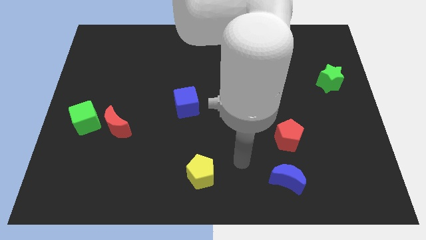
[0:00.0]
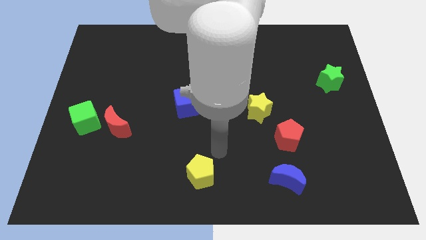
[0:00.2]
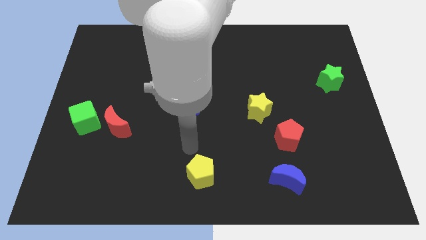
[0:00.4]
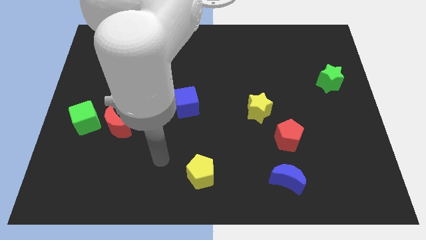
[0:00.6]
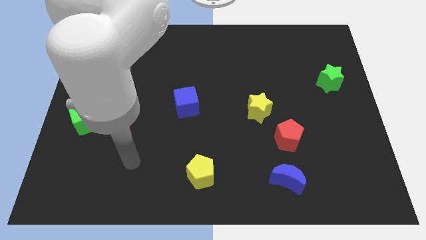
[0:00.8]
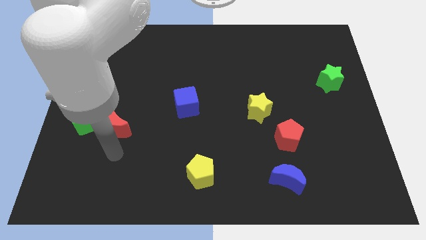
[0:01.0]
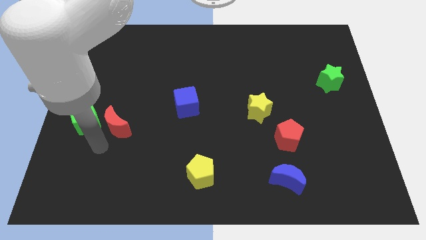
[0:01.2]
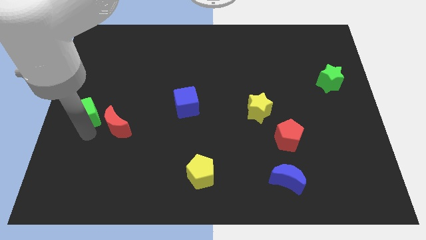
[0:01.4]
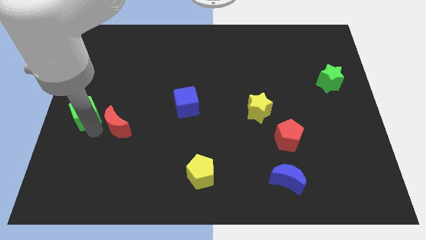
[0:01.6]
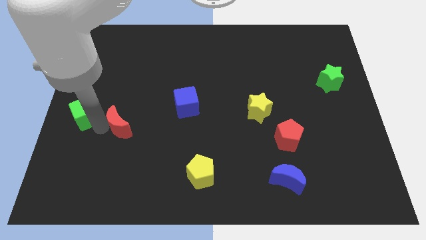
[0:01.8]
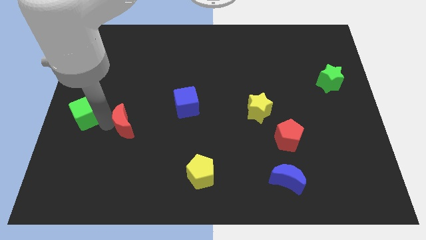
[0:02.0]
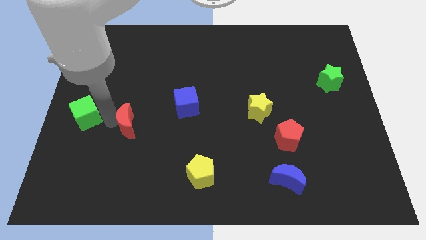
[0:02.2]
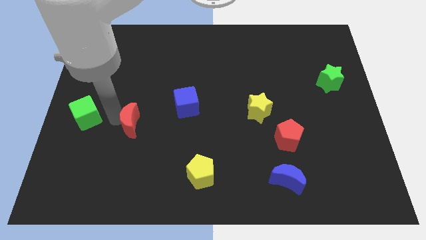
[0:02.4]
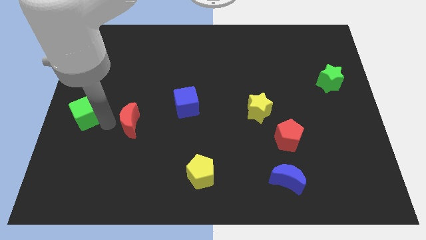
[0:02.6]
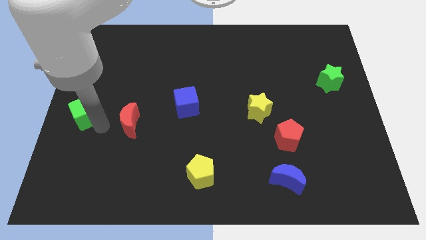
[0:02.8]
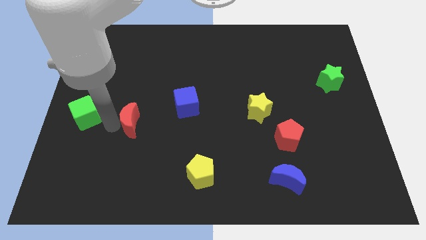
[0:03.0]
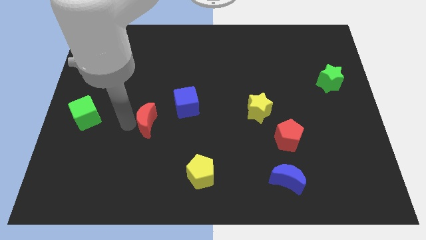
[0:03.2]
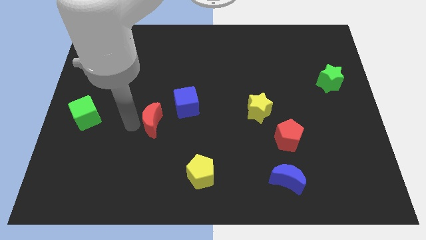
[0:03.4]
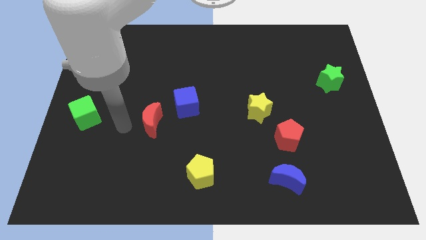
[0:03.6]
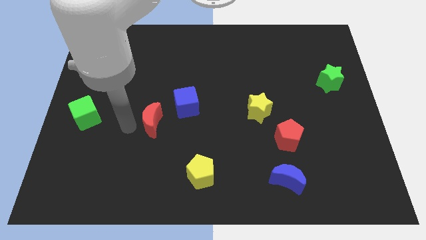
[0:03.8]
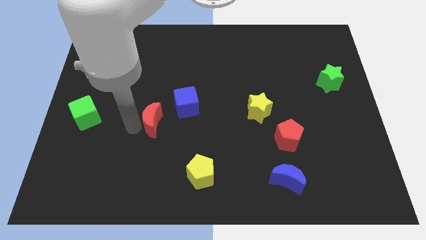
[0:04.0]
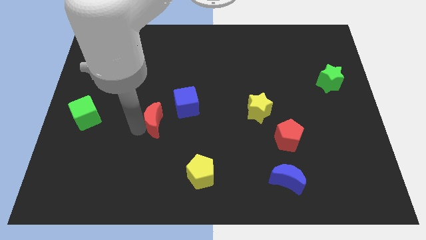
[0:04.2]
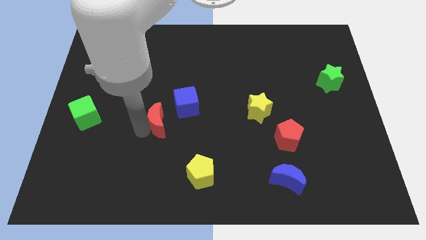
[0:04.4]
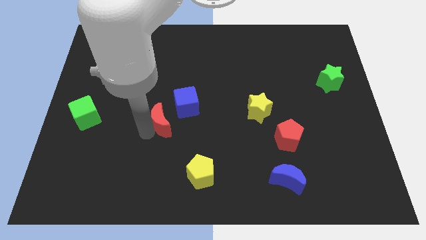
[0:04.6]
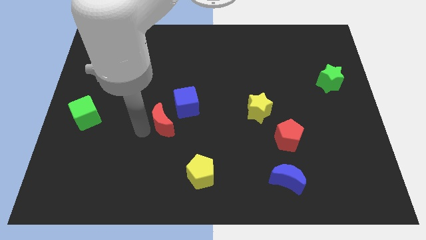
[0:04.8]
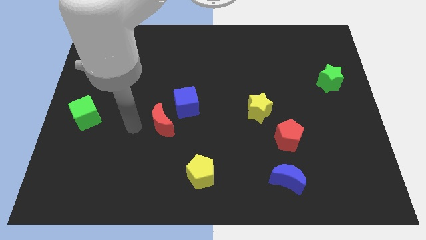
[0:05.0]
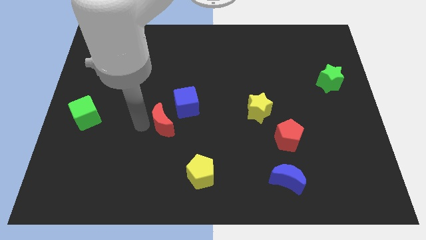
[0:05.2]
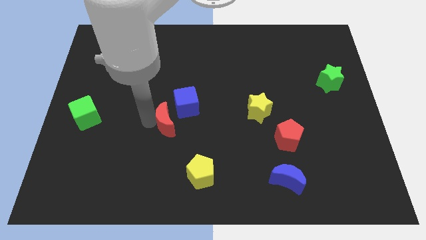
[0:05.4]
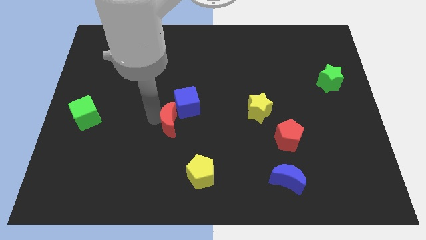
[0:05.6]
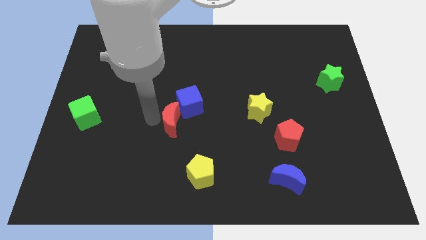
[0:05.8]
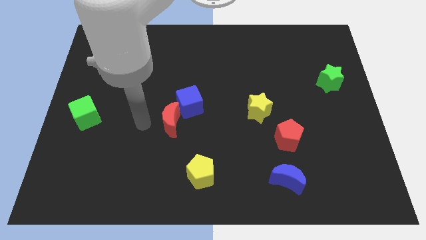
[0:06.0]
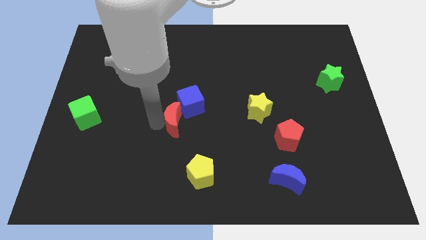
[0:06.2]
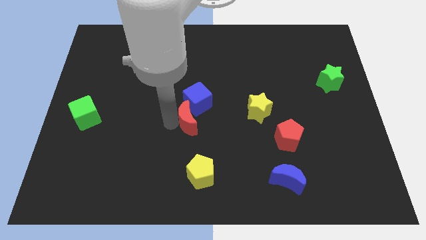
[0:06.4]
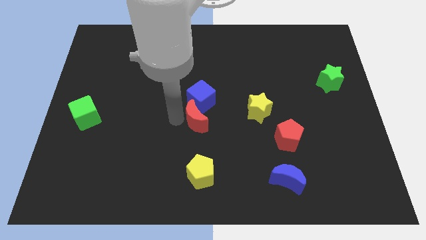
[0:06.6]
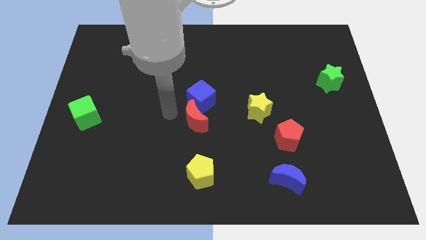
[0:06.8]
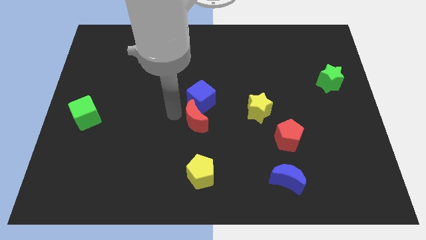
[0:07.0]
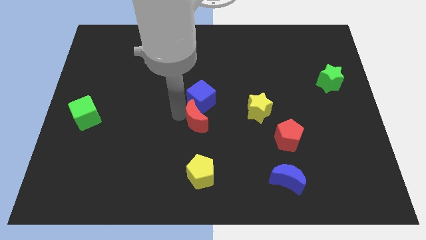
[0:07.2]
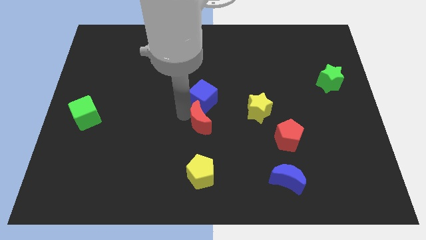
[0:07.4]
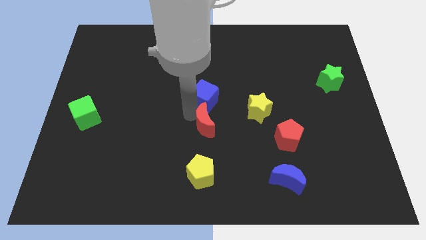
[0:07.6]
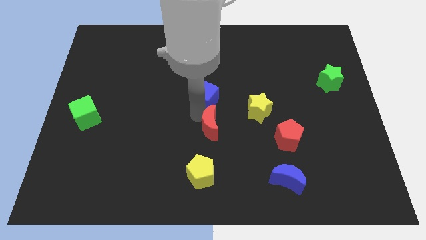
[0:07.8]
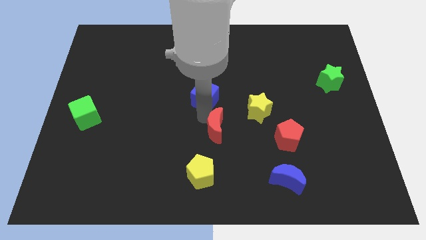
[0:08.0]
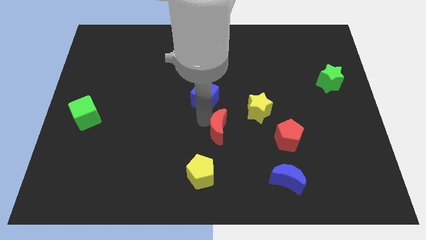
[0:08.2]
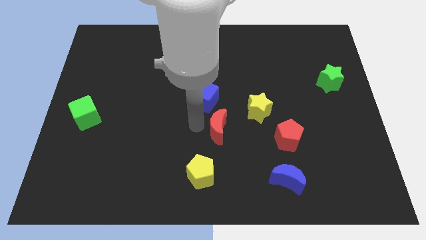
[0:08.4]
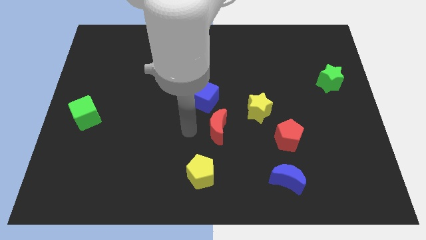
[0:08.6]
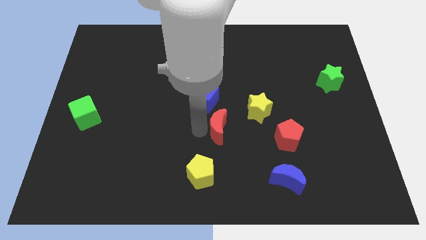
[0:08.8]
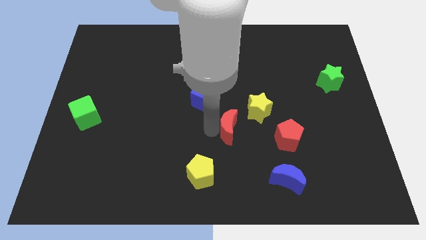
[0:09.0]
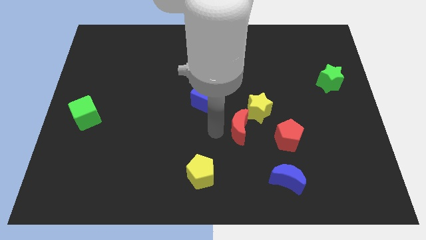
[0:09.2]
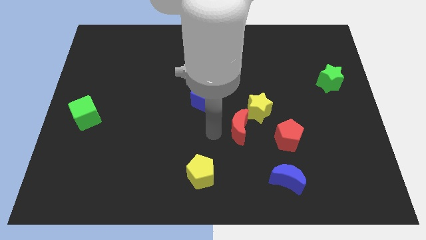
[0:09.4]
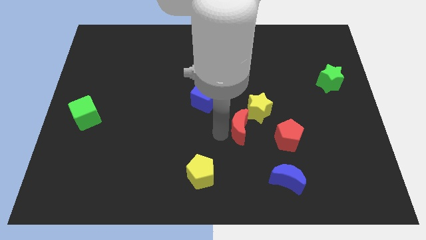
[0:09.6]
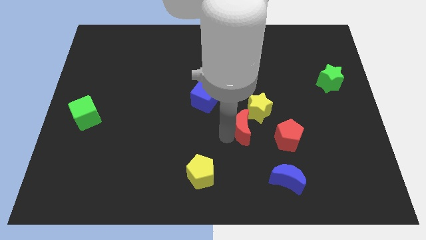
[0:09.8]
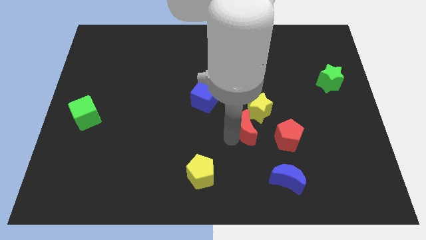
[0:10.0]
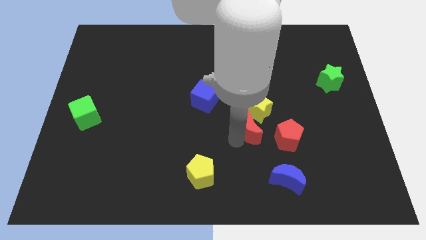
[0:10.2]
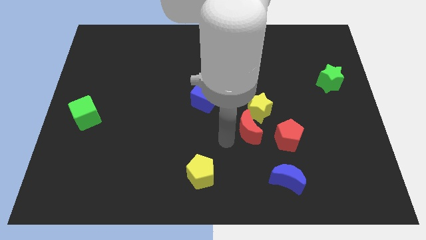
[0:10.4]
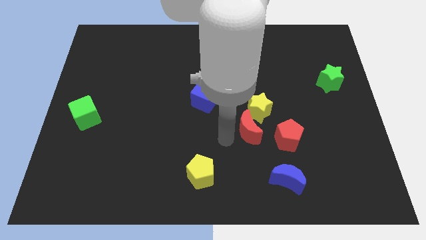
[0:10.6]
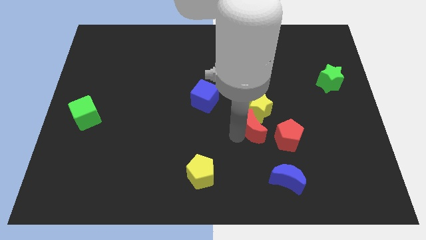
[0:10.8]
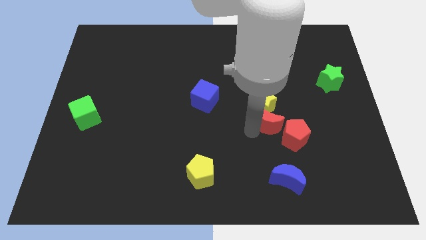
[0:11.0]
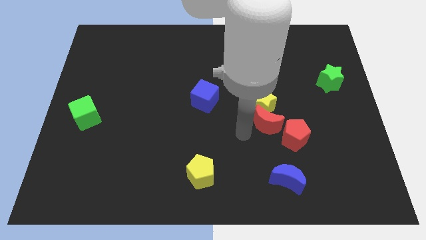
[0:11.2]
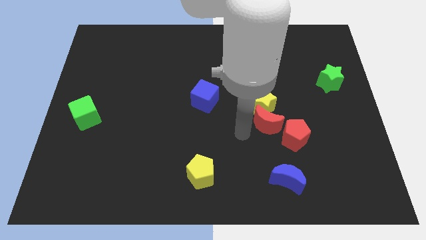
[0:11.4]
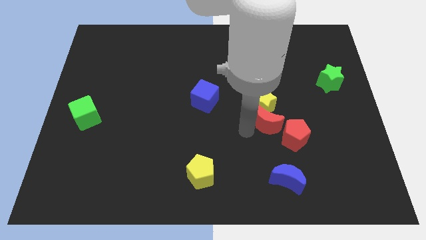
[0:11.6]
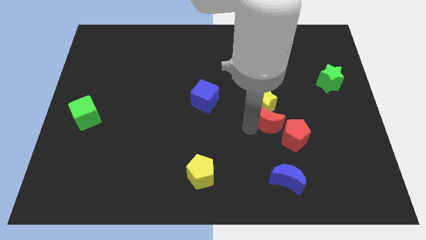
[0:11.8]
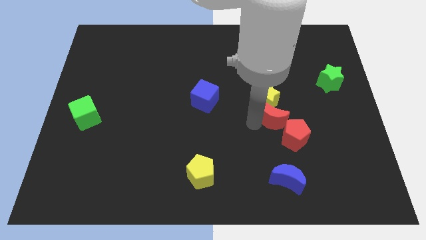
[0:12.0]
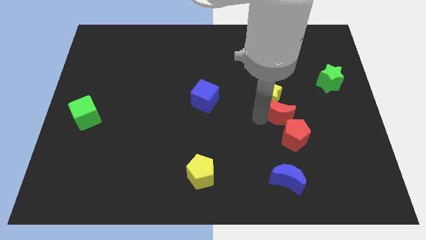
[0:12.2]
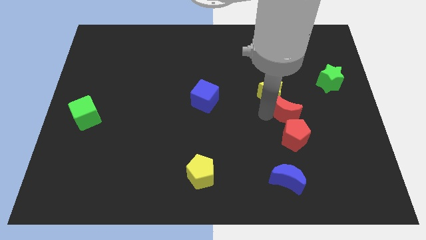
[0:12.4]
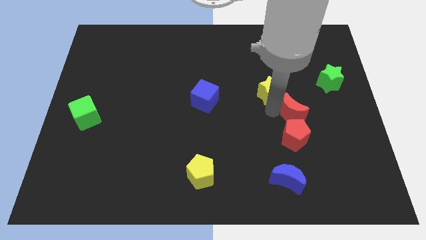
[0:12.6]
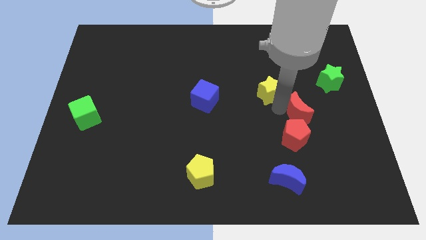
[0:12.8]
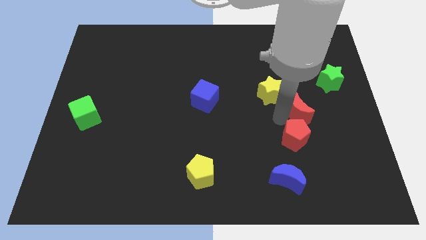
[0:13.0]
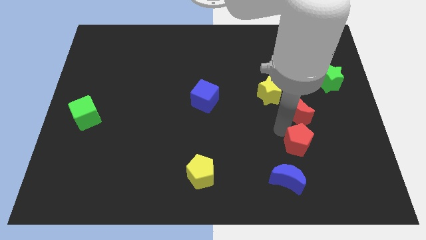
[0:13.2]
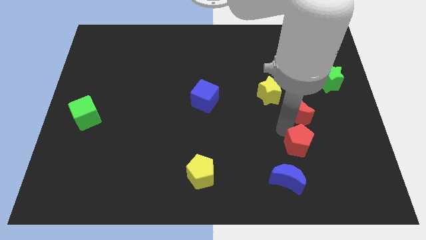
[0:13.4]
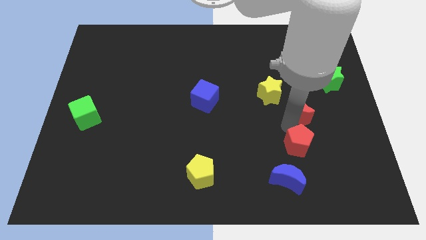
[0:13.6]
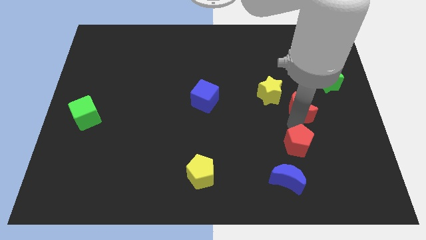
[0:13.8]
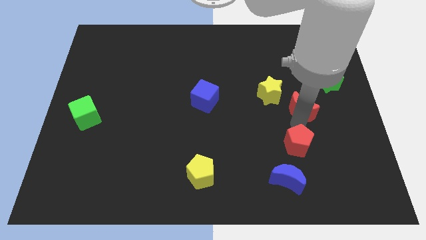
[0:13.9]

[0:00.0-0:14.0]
slide the red moon to the right of the yellow star

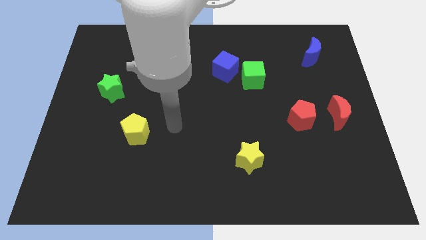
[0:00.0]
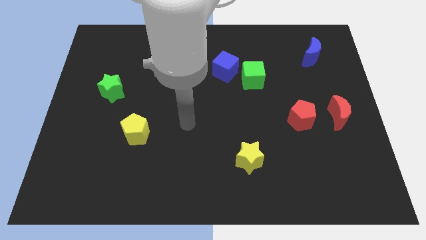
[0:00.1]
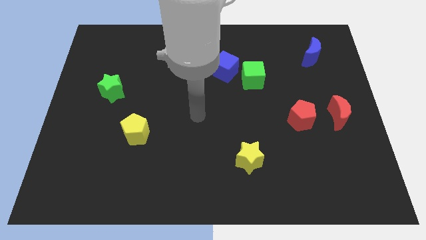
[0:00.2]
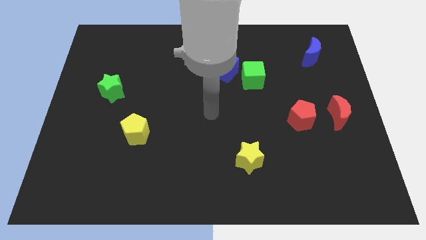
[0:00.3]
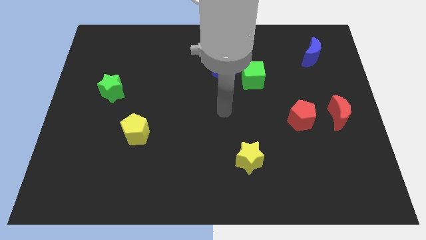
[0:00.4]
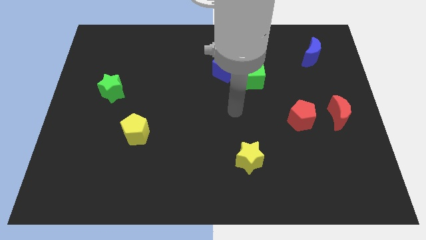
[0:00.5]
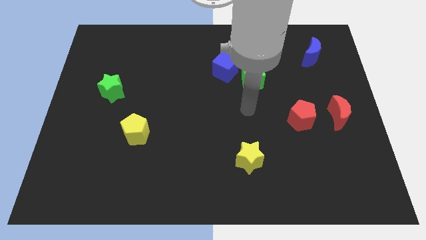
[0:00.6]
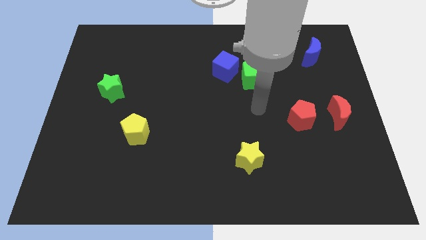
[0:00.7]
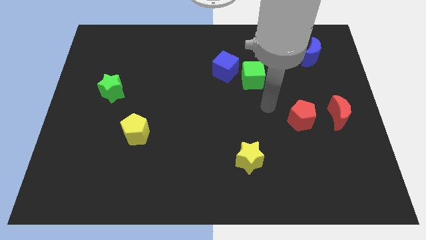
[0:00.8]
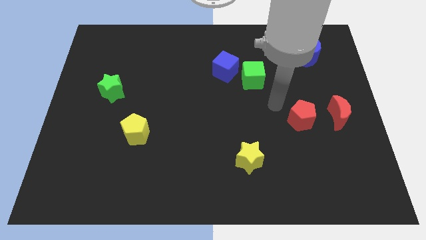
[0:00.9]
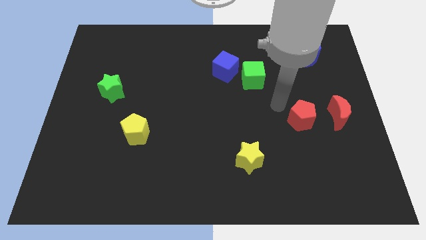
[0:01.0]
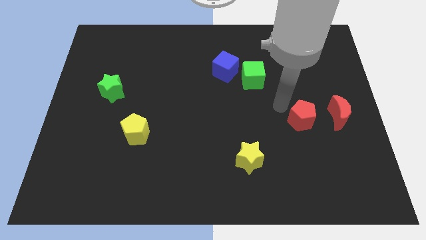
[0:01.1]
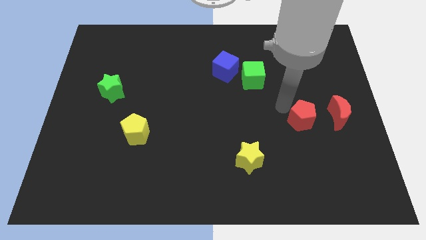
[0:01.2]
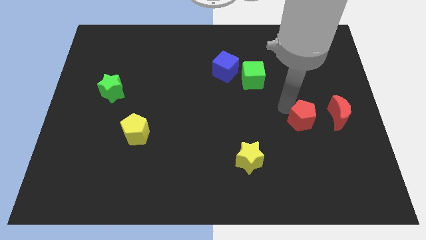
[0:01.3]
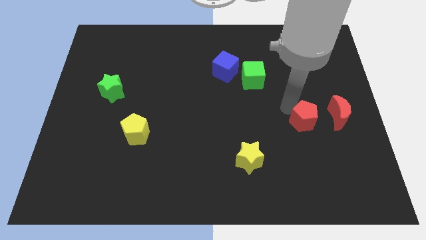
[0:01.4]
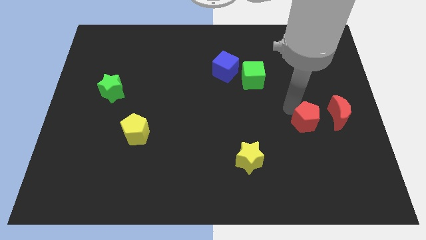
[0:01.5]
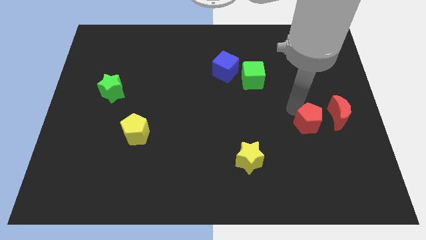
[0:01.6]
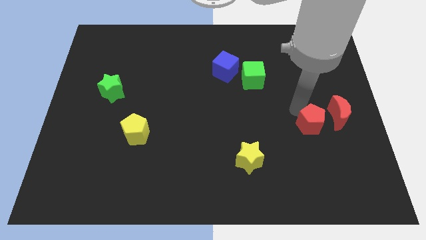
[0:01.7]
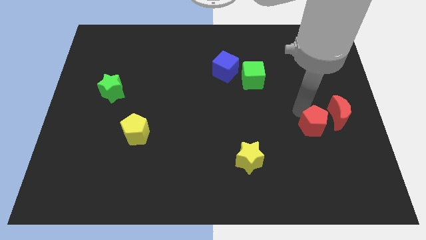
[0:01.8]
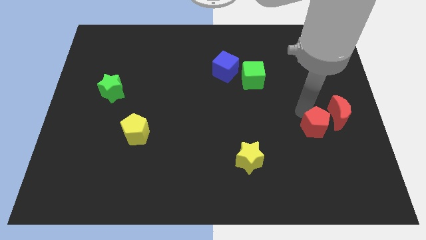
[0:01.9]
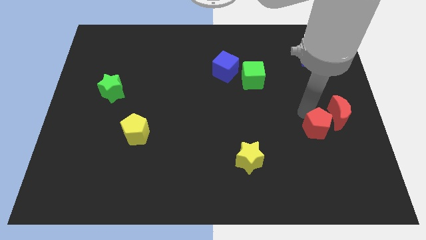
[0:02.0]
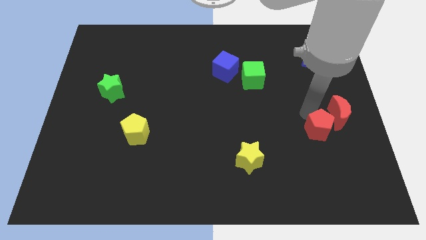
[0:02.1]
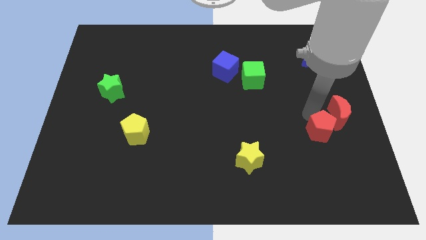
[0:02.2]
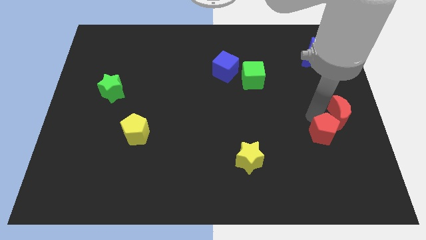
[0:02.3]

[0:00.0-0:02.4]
move the red pentagon below the red moon
